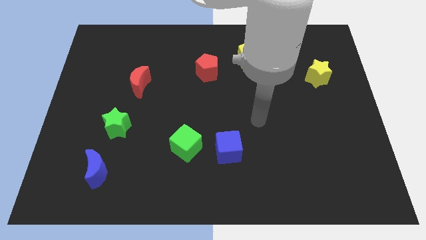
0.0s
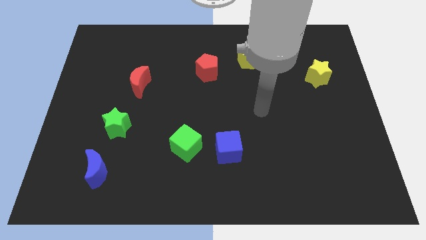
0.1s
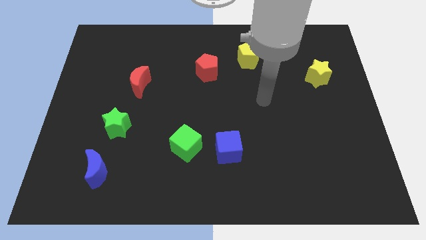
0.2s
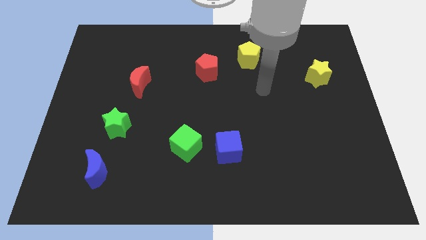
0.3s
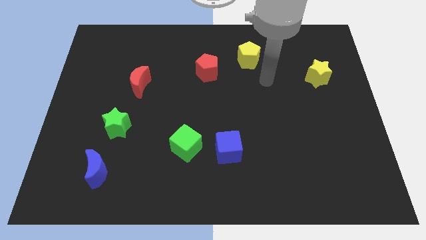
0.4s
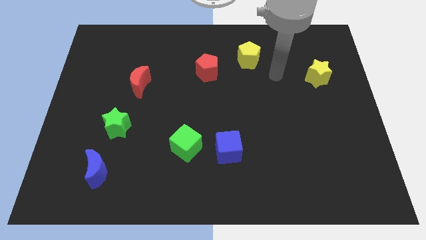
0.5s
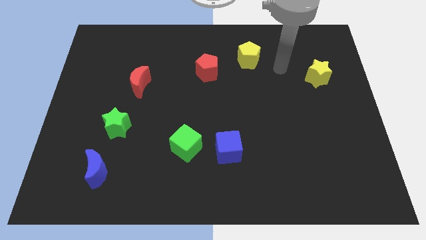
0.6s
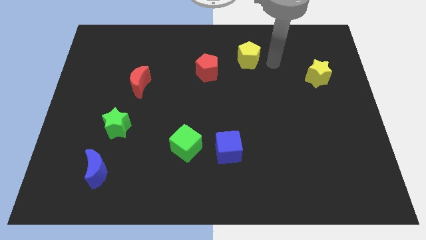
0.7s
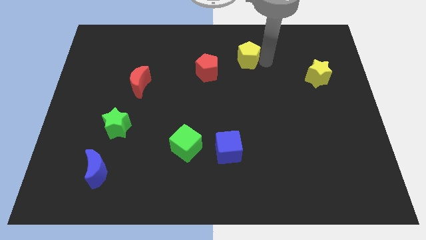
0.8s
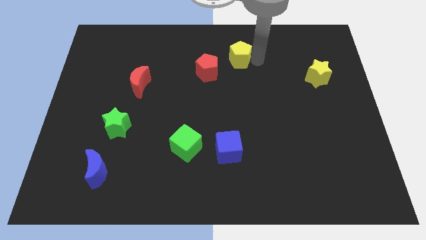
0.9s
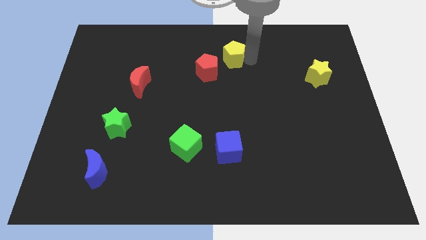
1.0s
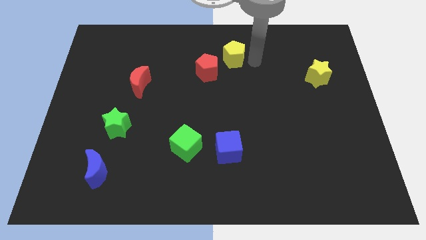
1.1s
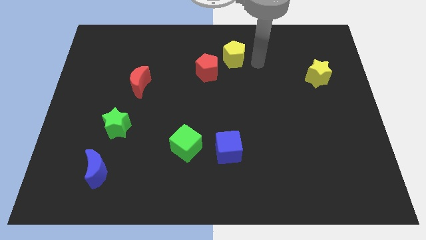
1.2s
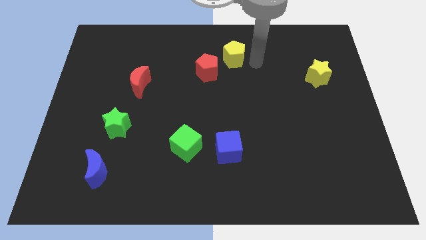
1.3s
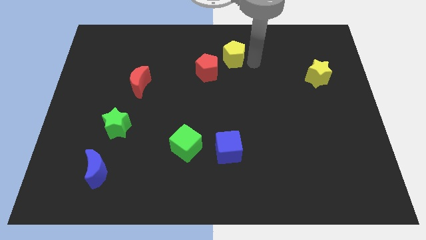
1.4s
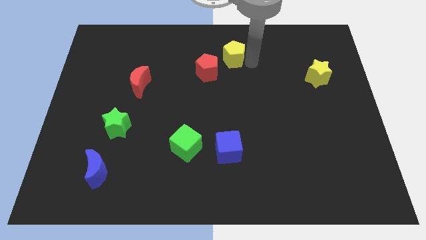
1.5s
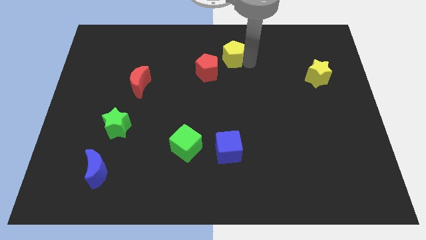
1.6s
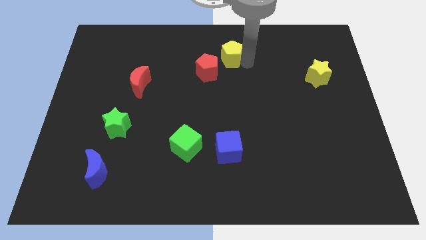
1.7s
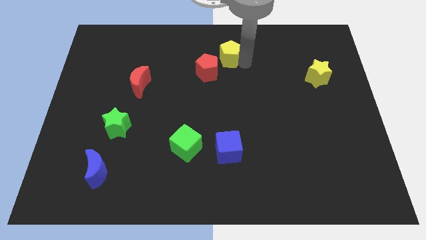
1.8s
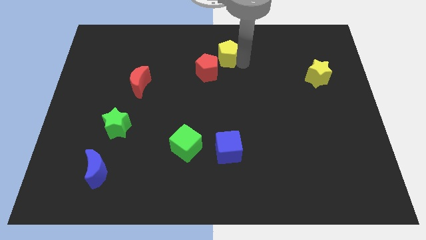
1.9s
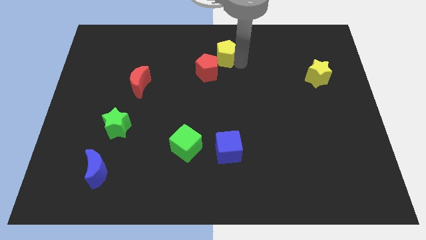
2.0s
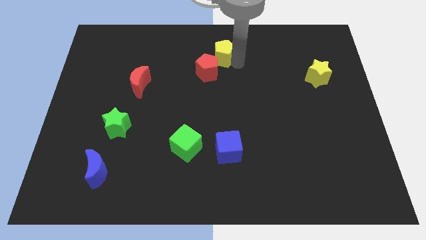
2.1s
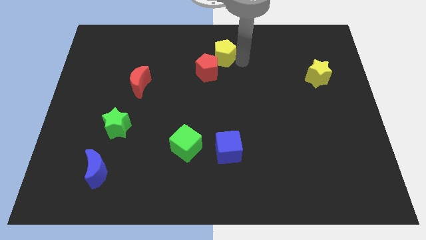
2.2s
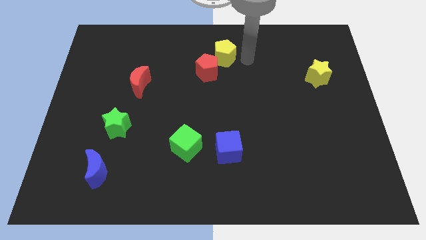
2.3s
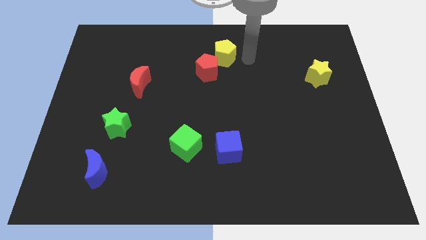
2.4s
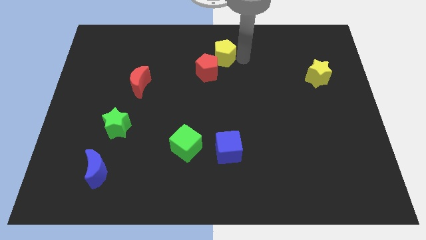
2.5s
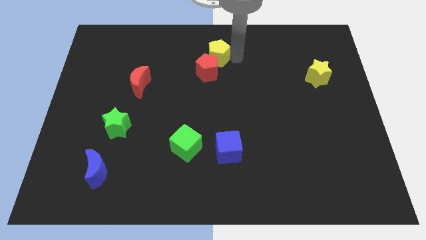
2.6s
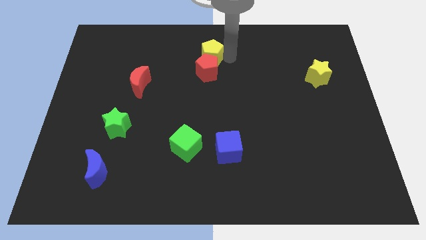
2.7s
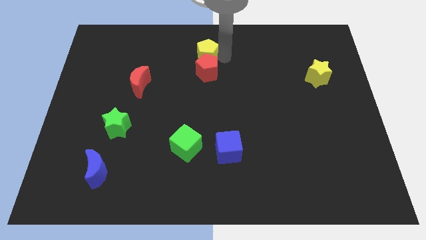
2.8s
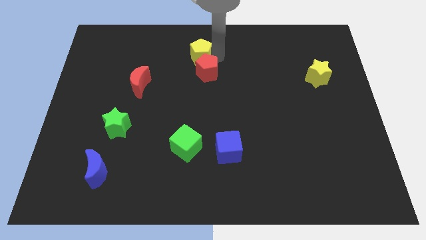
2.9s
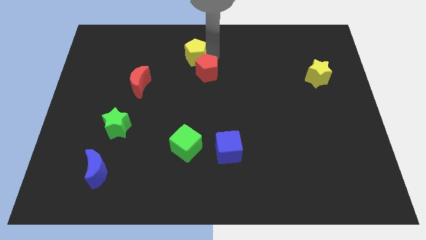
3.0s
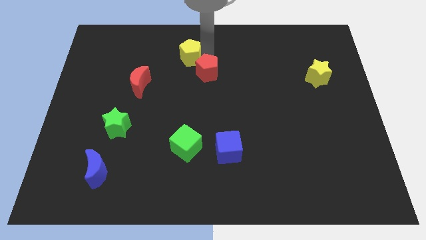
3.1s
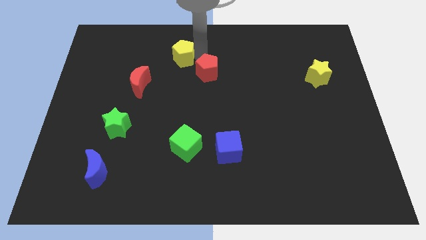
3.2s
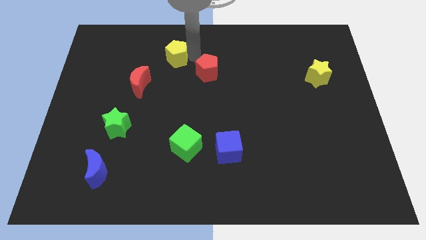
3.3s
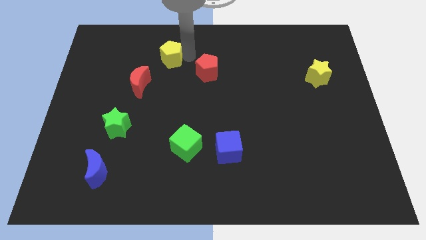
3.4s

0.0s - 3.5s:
push the yellow pentagon to the left

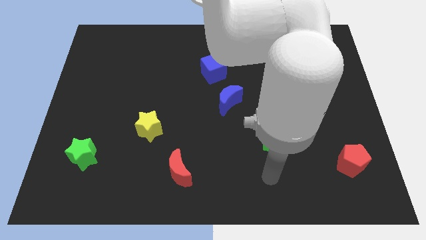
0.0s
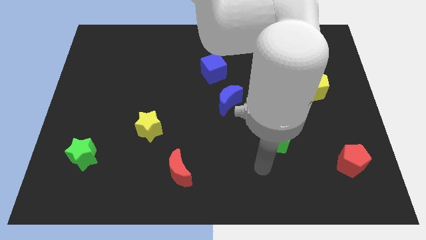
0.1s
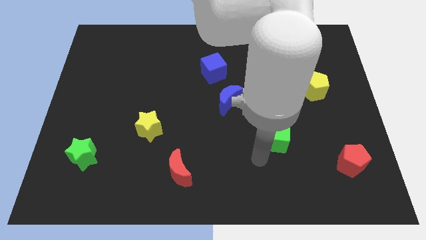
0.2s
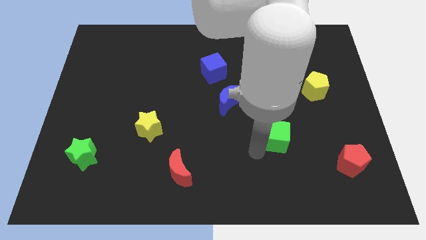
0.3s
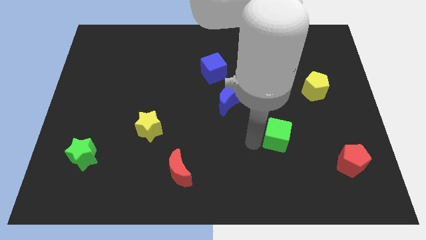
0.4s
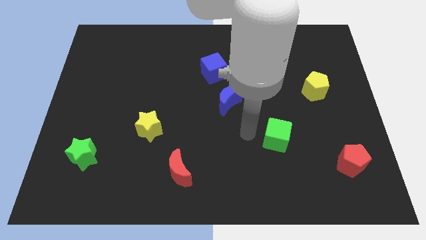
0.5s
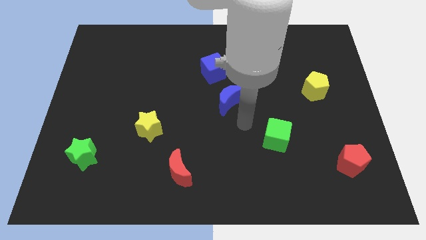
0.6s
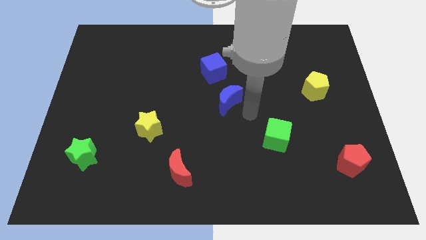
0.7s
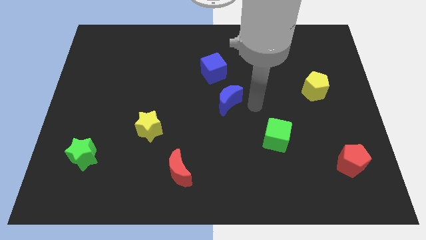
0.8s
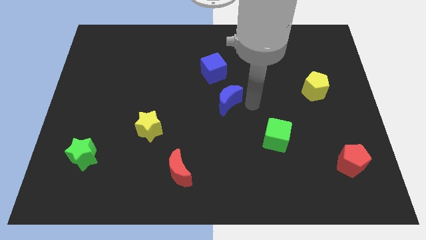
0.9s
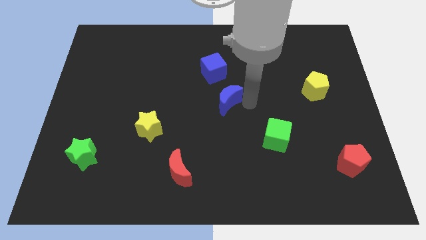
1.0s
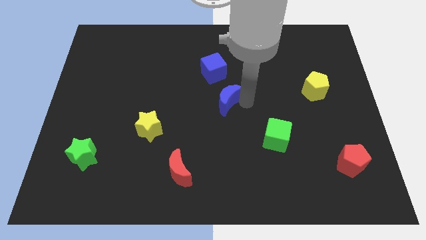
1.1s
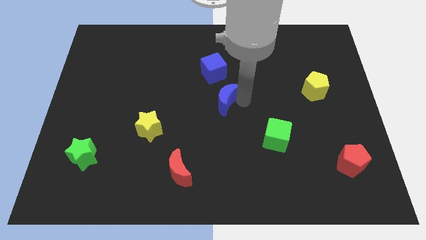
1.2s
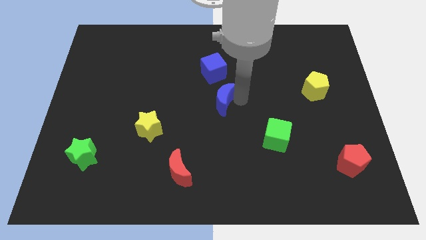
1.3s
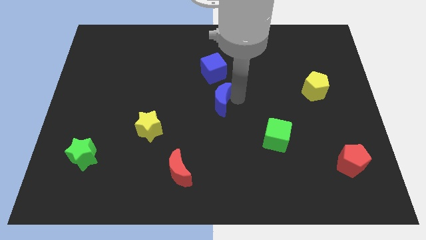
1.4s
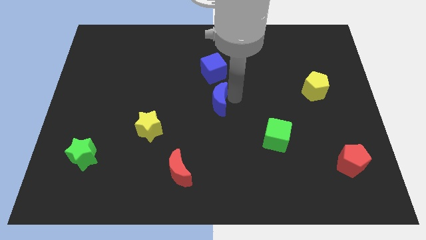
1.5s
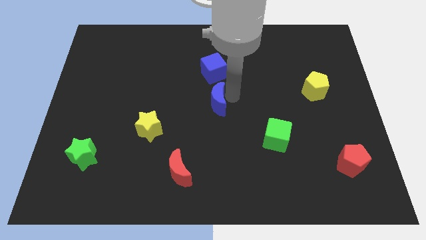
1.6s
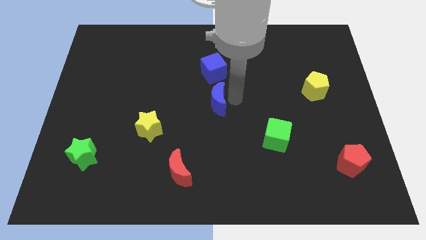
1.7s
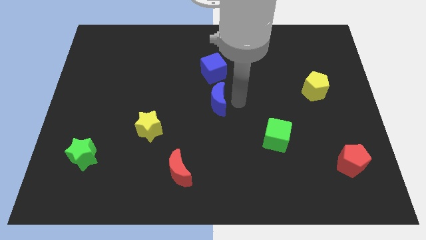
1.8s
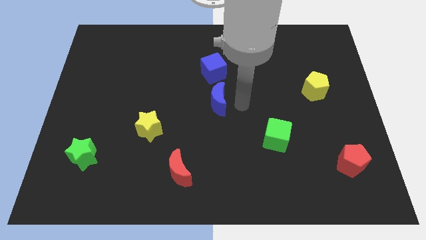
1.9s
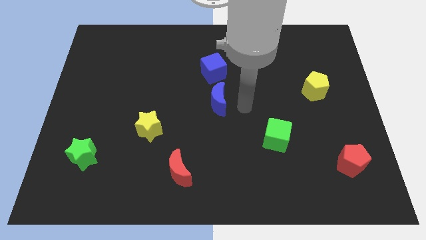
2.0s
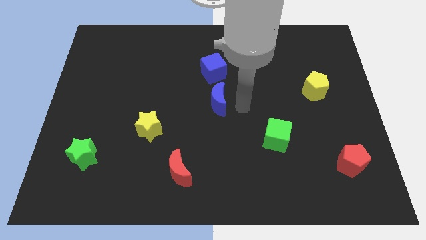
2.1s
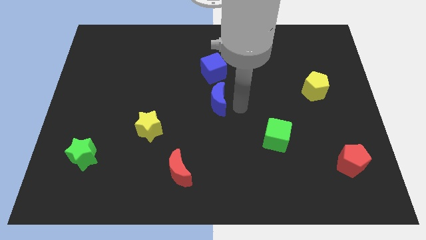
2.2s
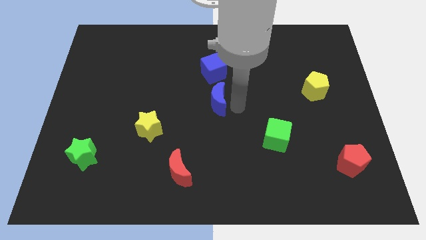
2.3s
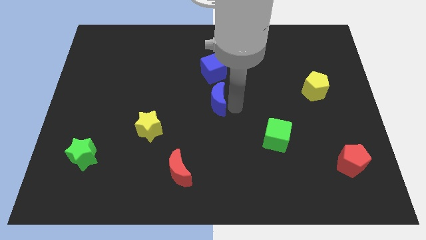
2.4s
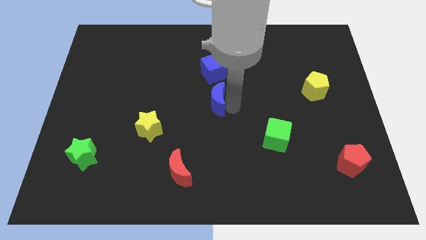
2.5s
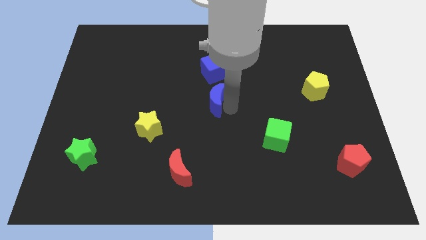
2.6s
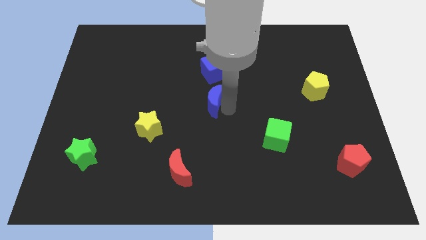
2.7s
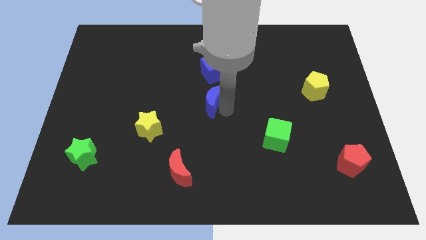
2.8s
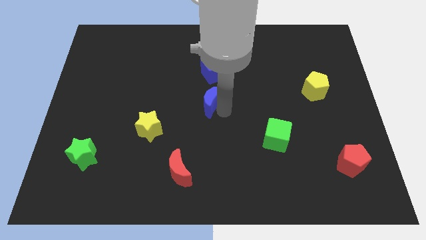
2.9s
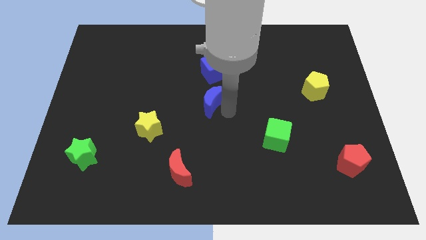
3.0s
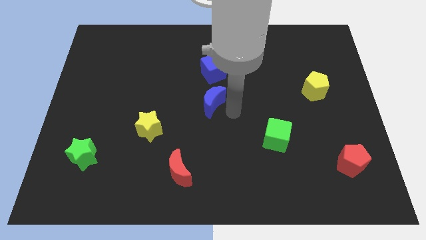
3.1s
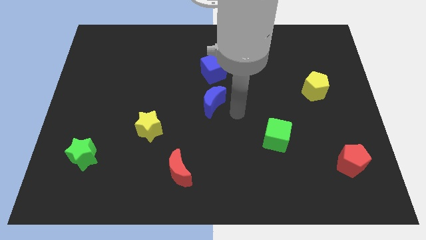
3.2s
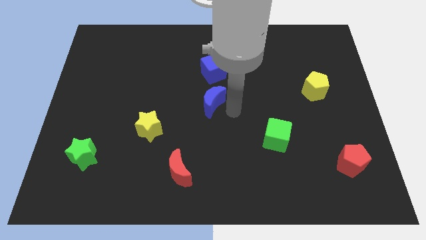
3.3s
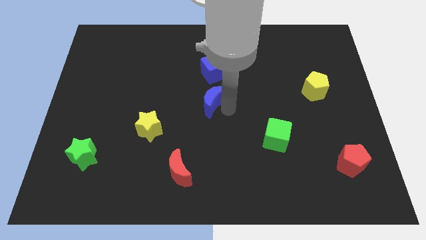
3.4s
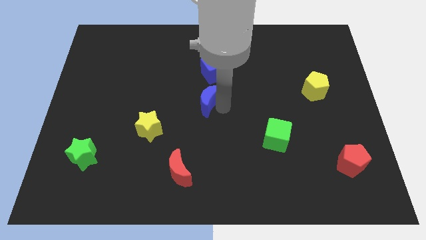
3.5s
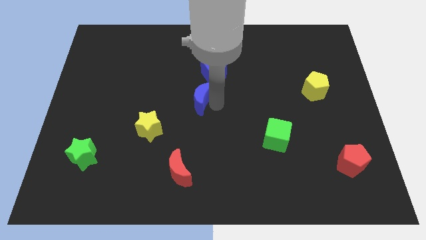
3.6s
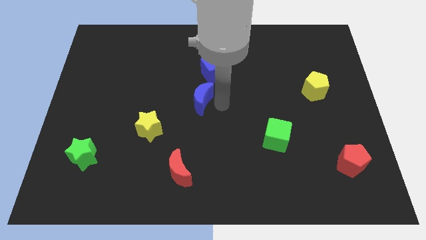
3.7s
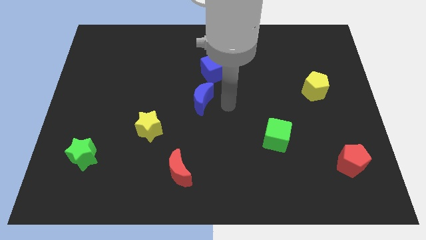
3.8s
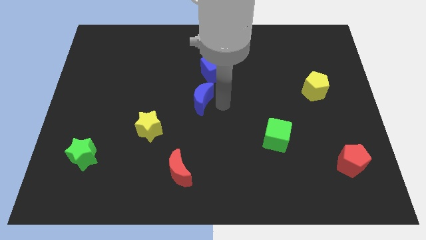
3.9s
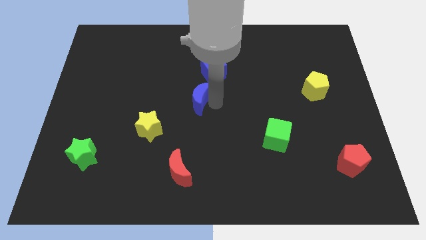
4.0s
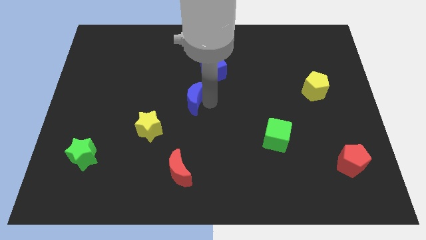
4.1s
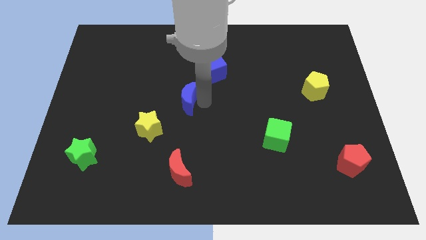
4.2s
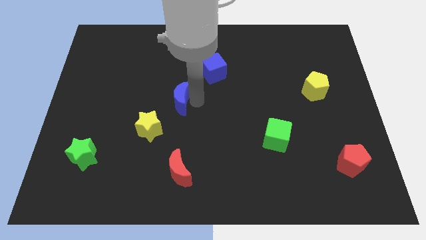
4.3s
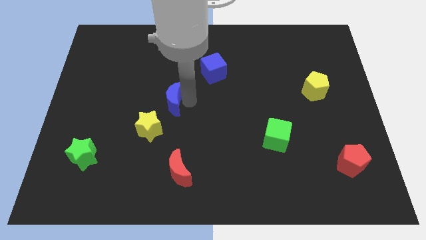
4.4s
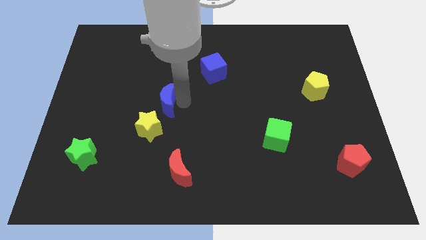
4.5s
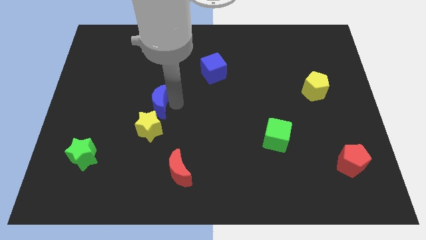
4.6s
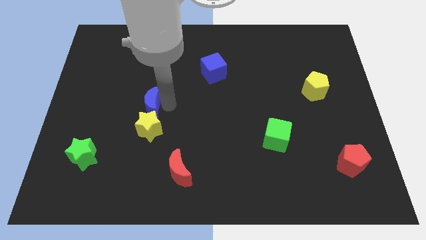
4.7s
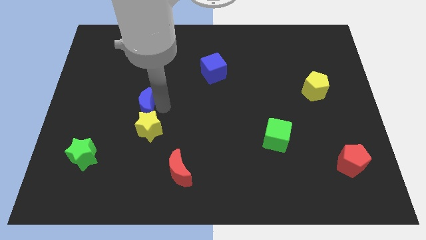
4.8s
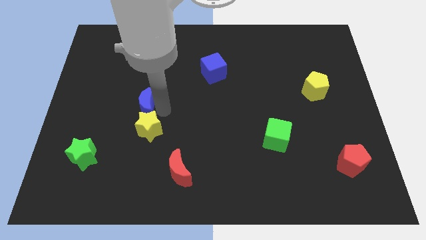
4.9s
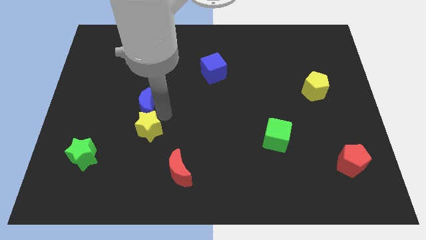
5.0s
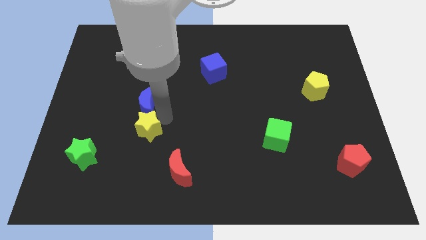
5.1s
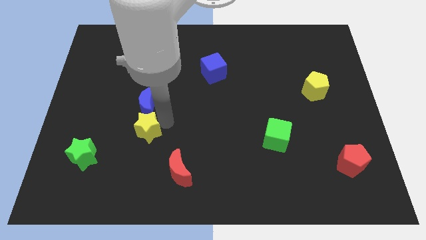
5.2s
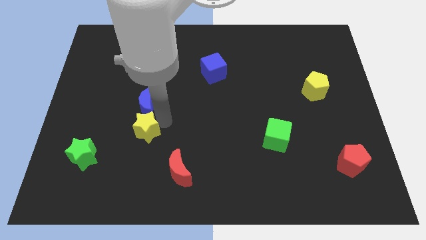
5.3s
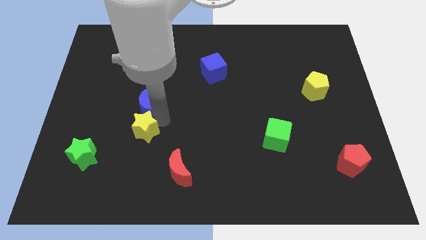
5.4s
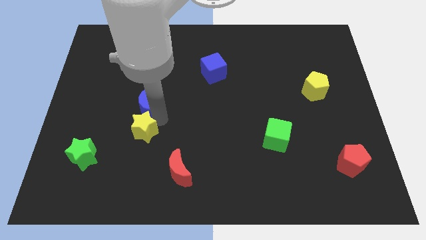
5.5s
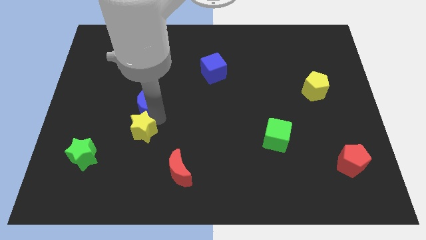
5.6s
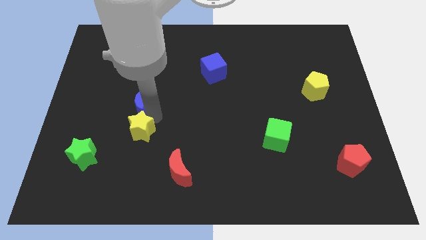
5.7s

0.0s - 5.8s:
push the blue moon left
